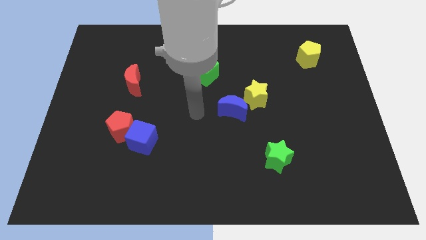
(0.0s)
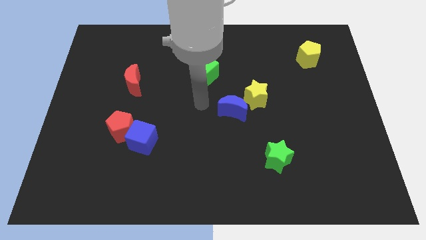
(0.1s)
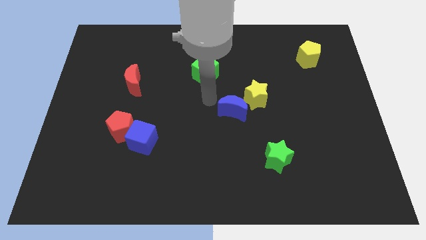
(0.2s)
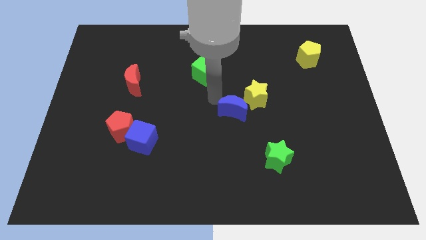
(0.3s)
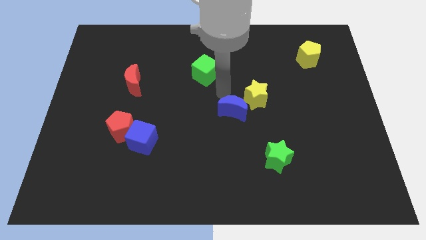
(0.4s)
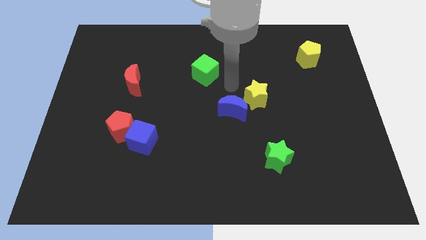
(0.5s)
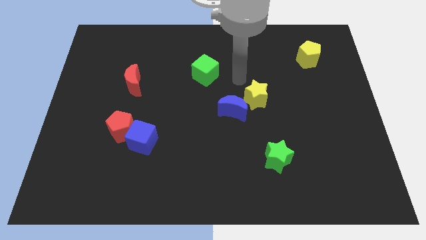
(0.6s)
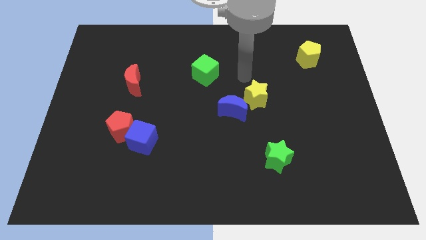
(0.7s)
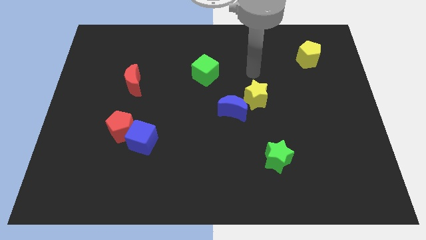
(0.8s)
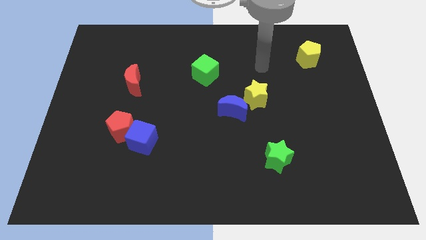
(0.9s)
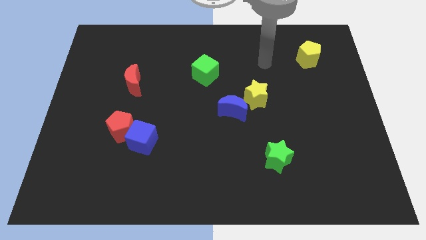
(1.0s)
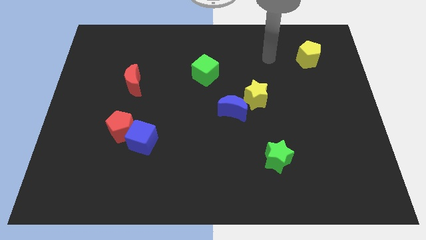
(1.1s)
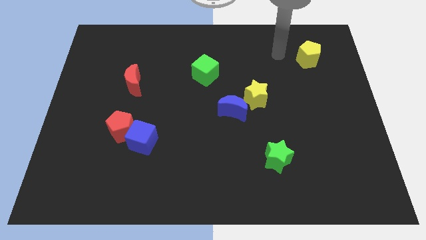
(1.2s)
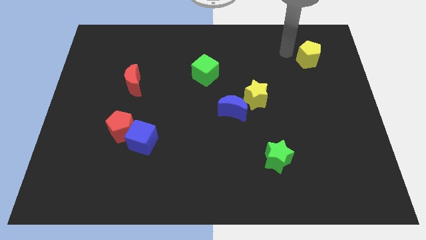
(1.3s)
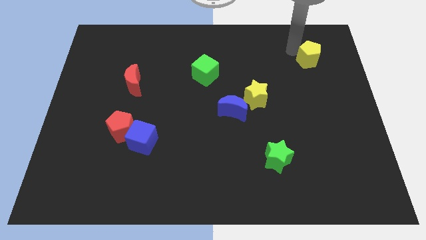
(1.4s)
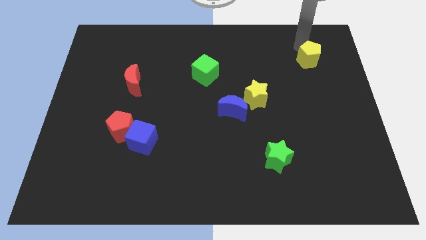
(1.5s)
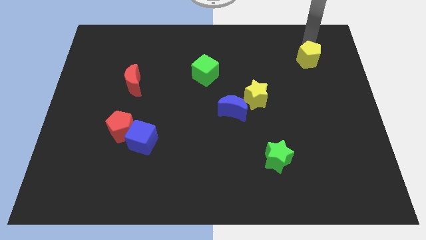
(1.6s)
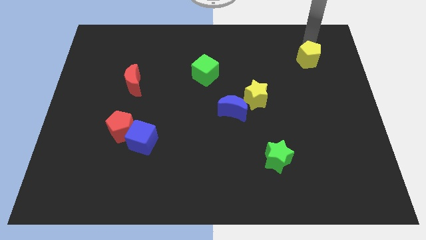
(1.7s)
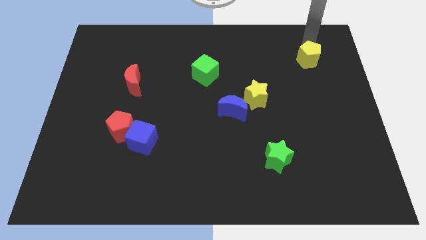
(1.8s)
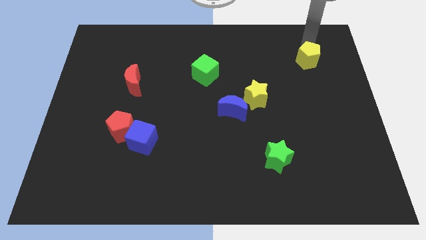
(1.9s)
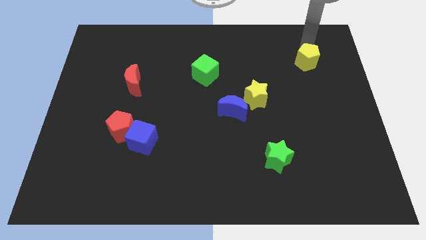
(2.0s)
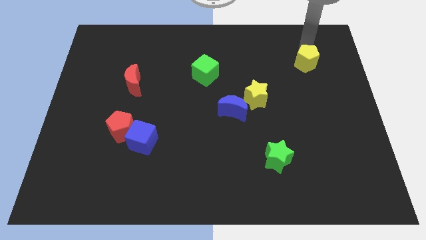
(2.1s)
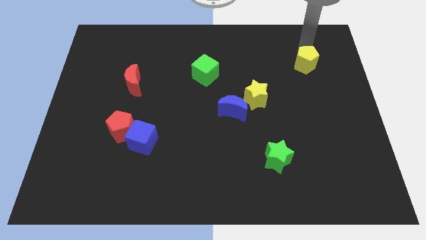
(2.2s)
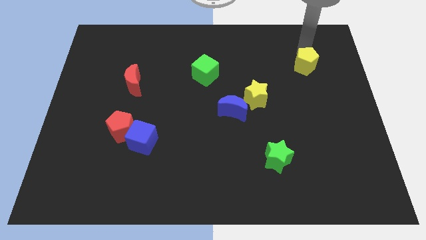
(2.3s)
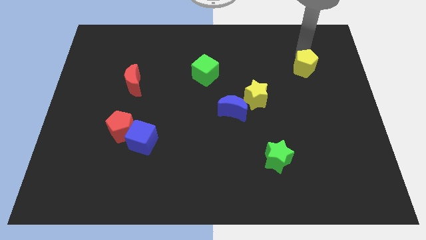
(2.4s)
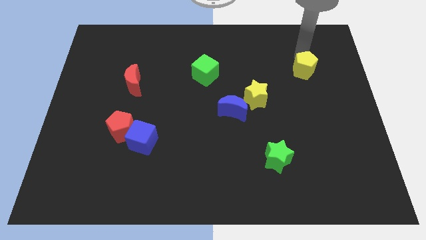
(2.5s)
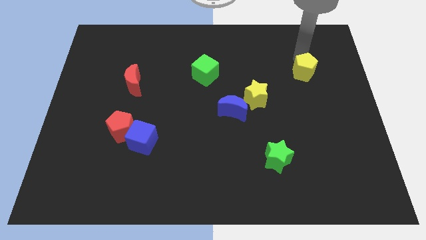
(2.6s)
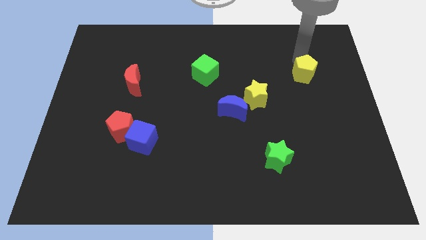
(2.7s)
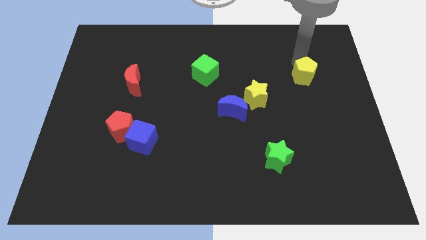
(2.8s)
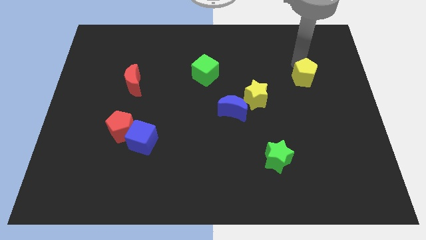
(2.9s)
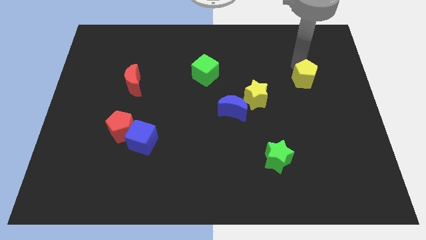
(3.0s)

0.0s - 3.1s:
slide the yellow pentagon down a little bit

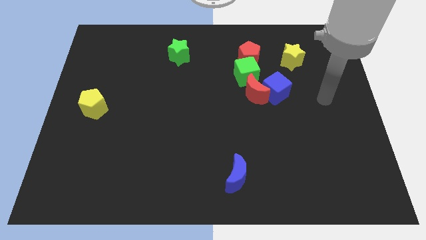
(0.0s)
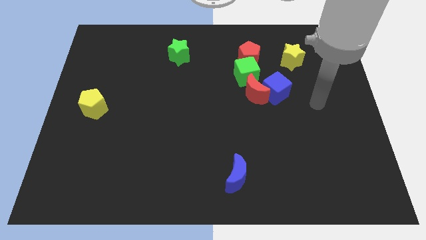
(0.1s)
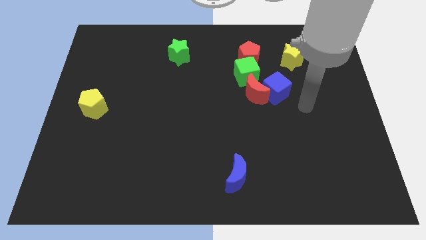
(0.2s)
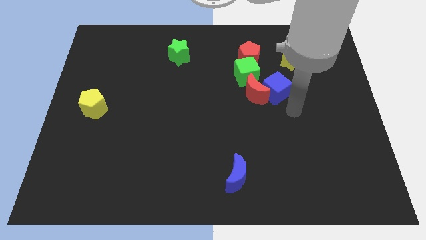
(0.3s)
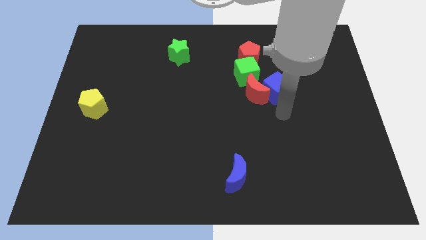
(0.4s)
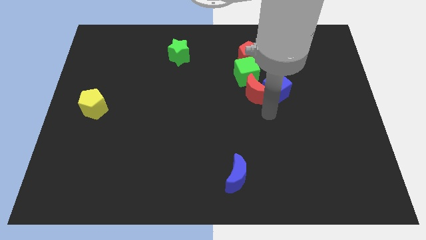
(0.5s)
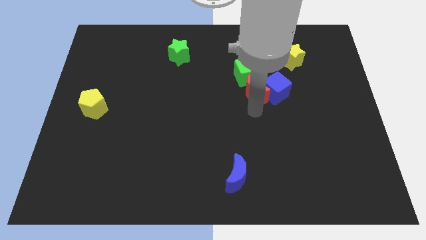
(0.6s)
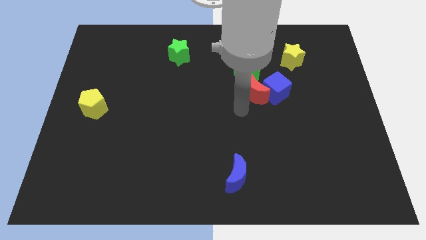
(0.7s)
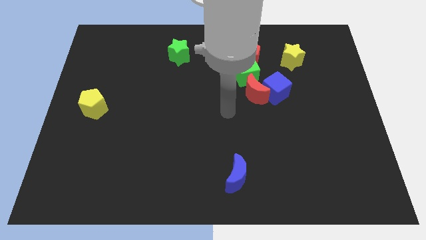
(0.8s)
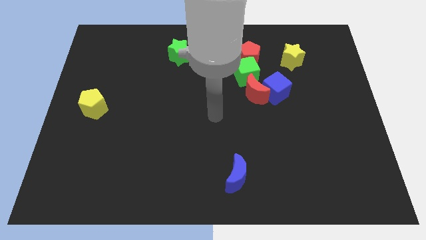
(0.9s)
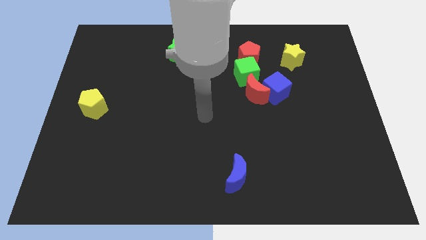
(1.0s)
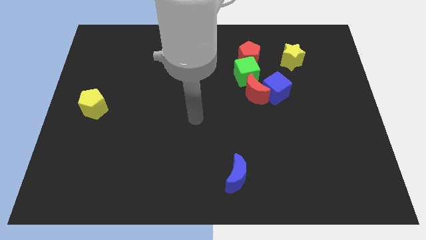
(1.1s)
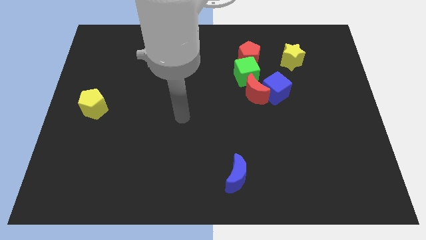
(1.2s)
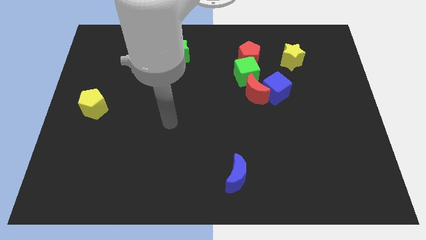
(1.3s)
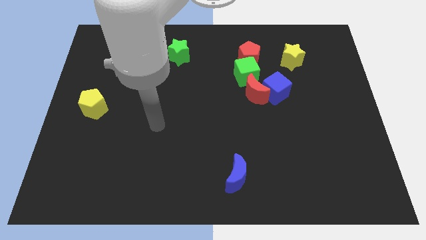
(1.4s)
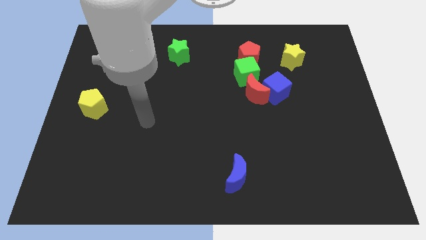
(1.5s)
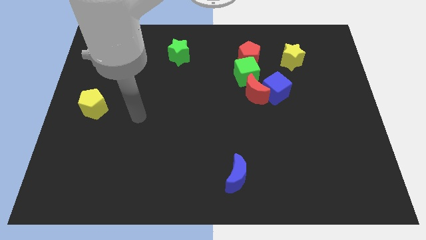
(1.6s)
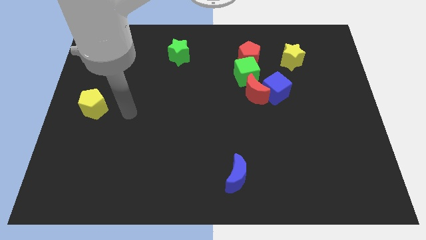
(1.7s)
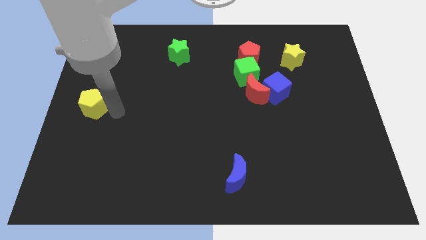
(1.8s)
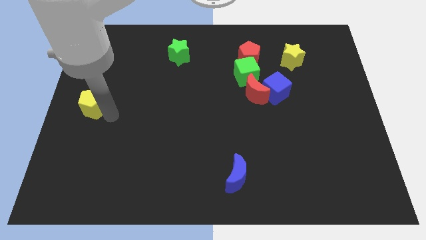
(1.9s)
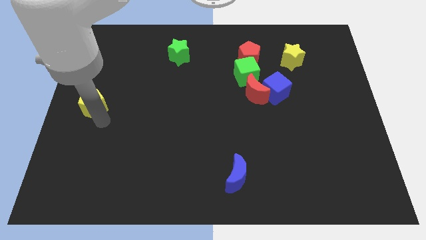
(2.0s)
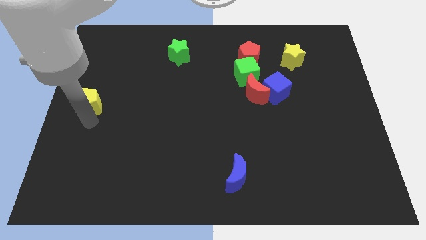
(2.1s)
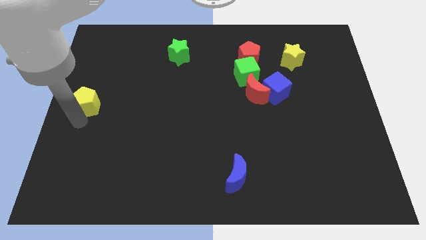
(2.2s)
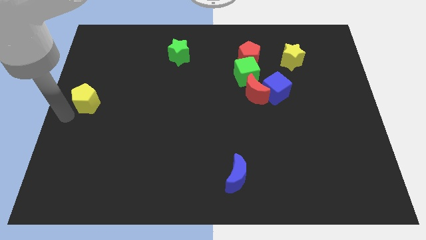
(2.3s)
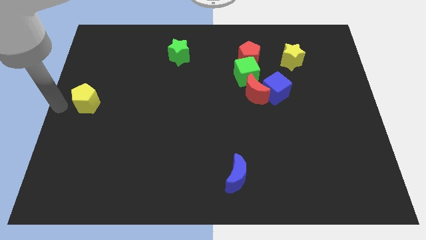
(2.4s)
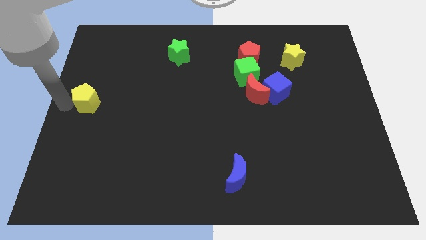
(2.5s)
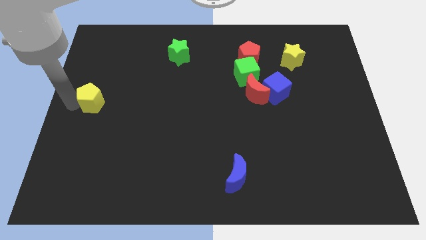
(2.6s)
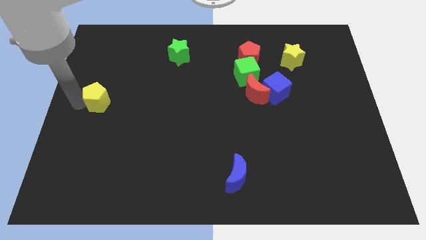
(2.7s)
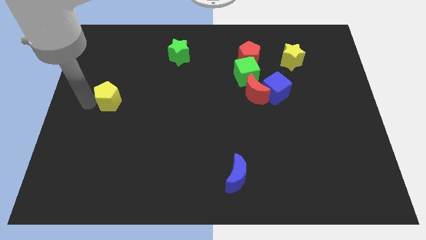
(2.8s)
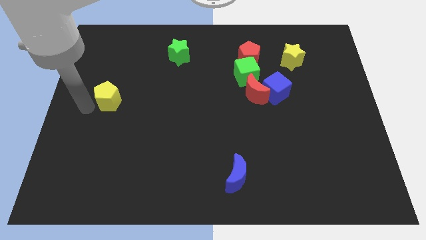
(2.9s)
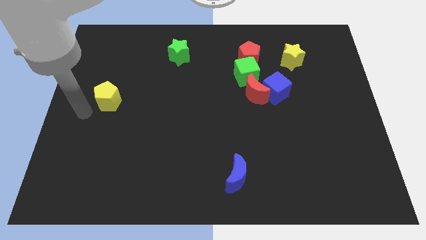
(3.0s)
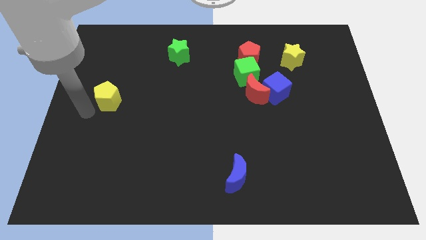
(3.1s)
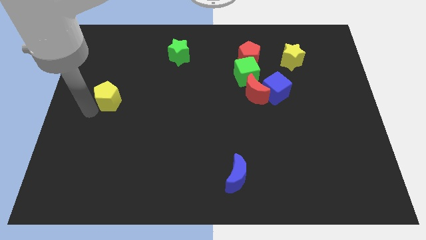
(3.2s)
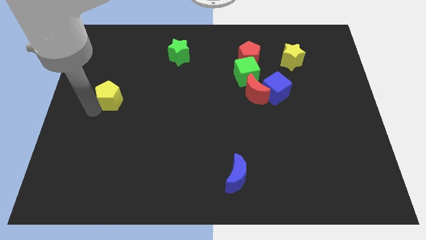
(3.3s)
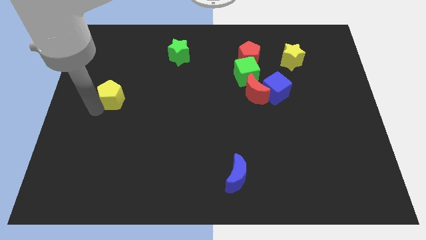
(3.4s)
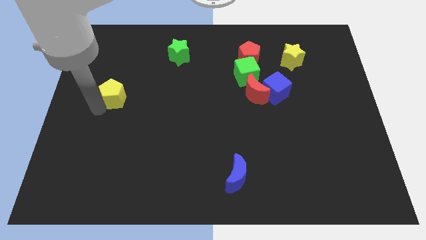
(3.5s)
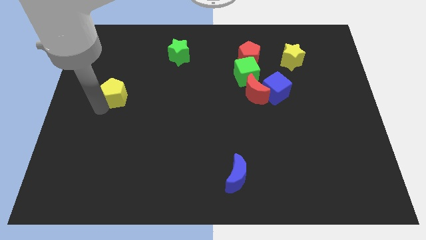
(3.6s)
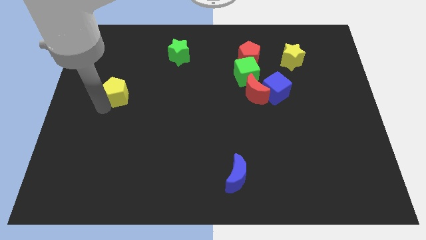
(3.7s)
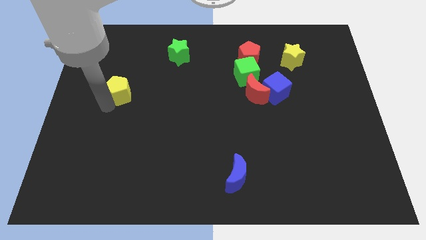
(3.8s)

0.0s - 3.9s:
push the yellow pentagon up and right diagonally slightly

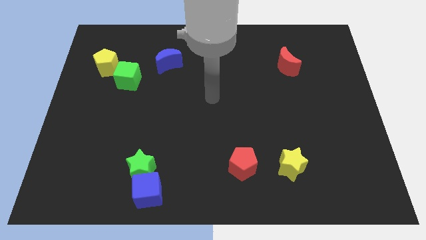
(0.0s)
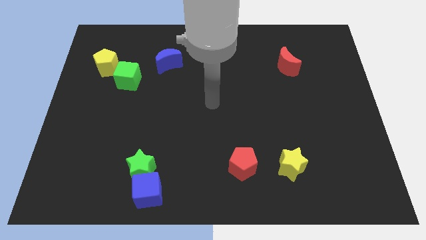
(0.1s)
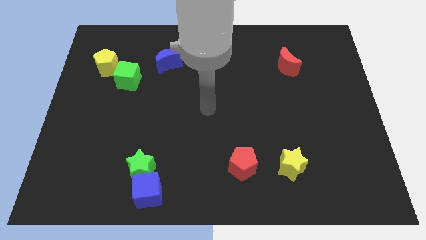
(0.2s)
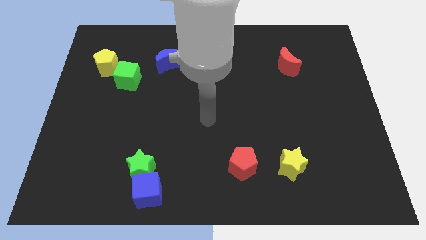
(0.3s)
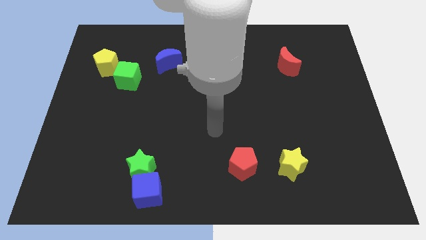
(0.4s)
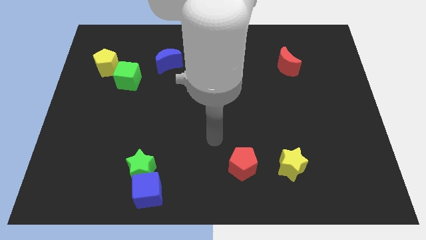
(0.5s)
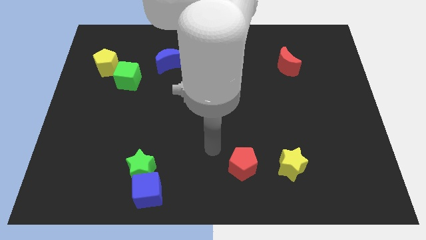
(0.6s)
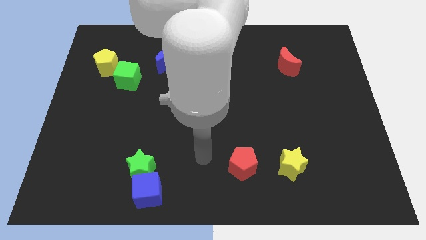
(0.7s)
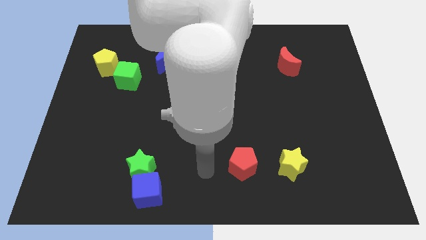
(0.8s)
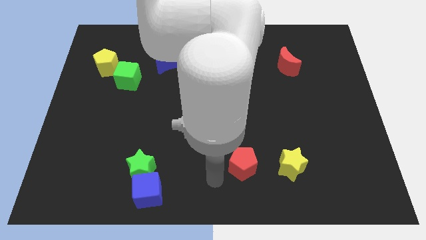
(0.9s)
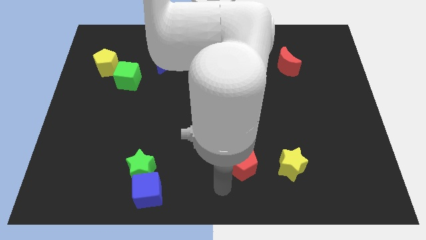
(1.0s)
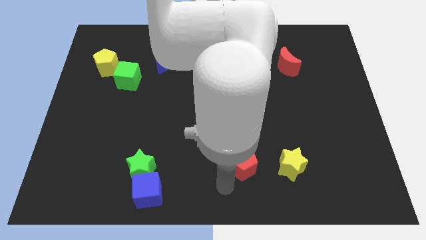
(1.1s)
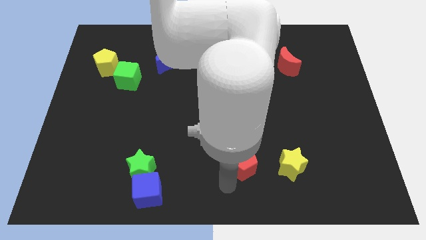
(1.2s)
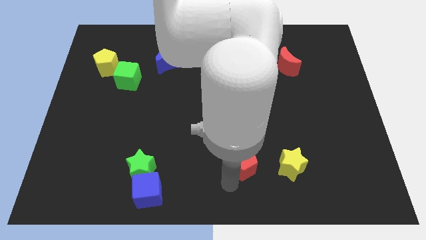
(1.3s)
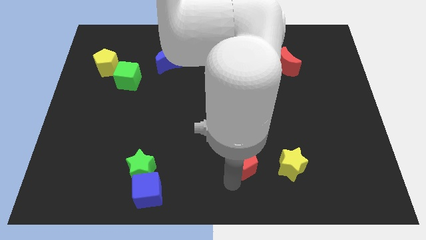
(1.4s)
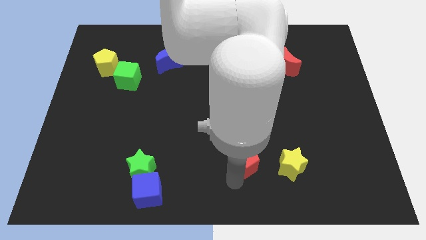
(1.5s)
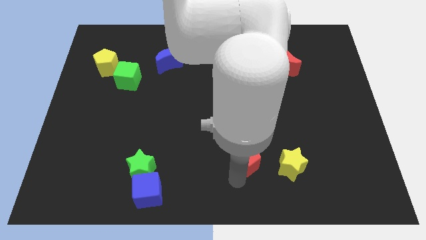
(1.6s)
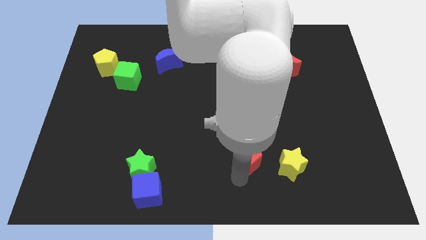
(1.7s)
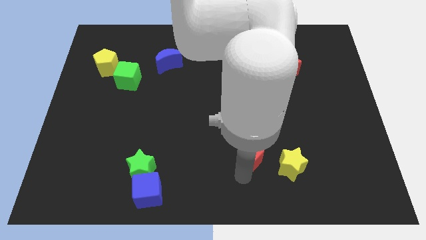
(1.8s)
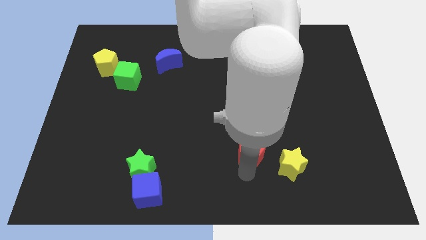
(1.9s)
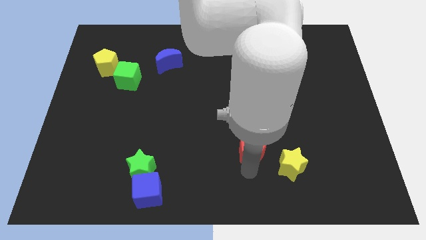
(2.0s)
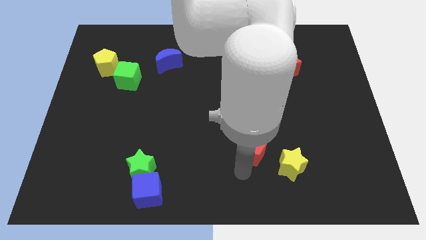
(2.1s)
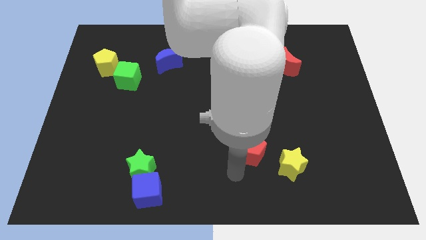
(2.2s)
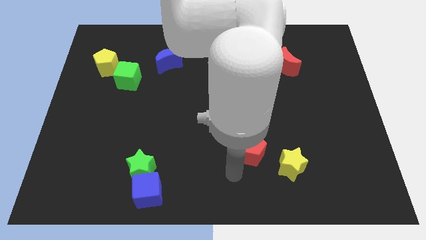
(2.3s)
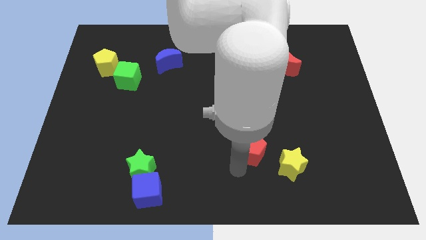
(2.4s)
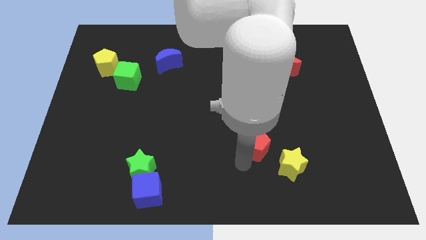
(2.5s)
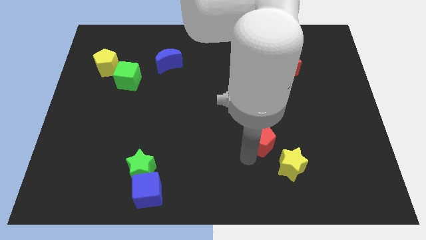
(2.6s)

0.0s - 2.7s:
slide the red pentagon a little bit up and to the right diagonally
